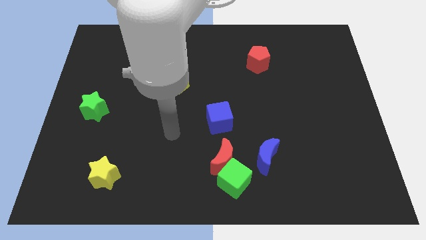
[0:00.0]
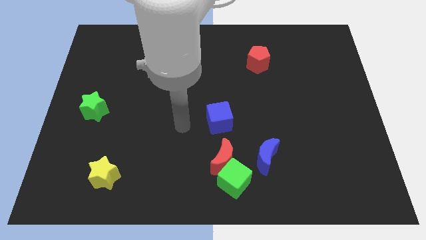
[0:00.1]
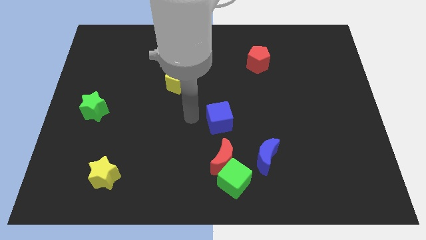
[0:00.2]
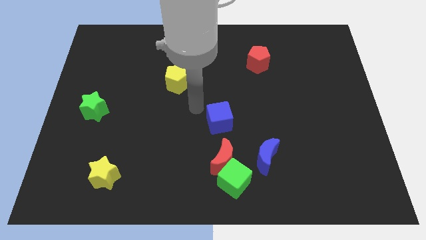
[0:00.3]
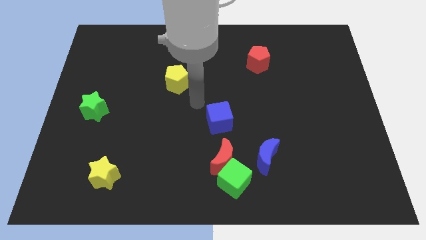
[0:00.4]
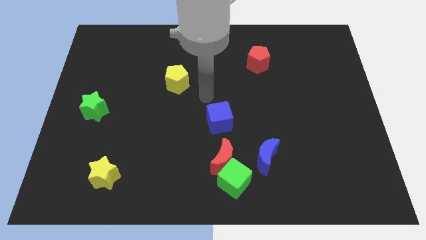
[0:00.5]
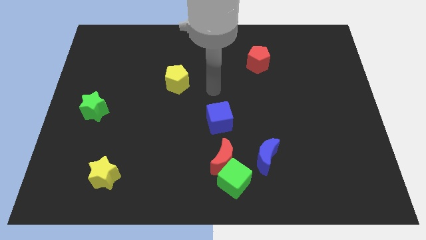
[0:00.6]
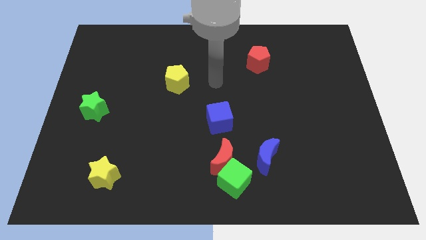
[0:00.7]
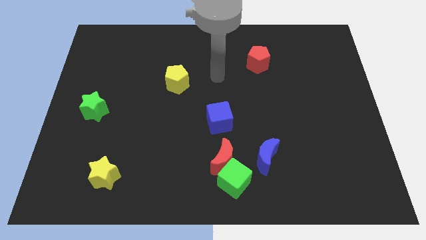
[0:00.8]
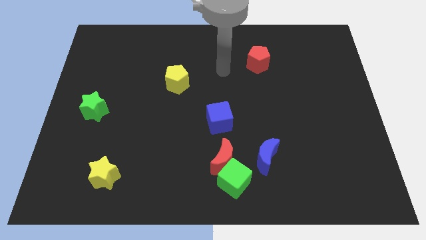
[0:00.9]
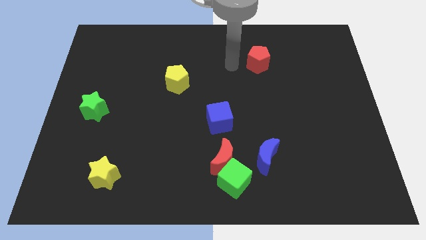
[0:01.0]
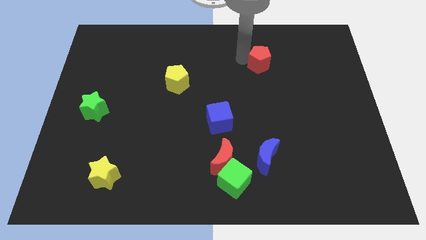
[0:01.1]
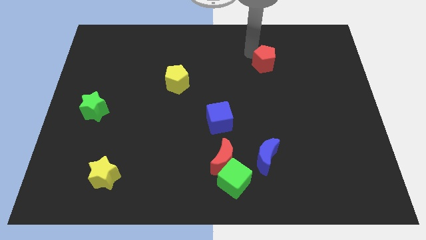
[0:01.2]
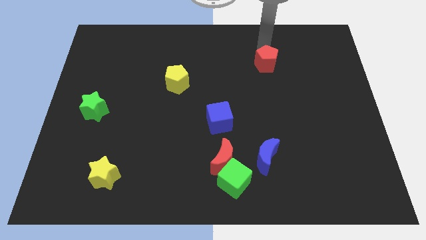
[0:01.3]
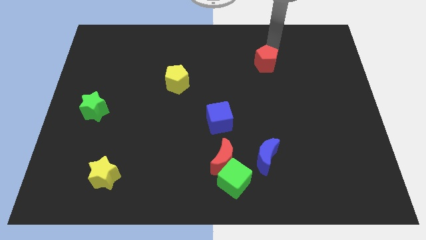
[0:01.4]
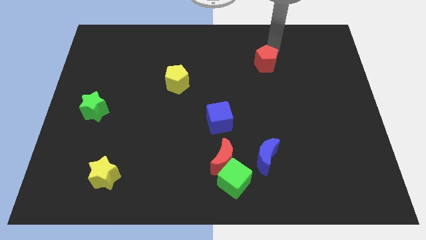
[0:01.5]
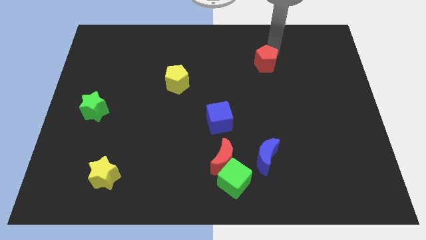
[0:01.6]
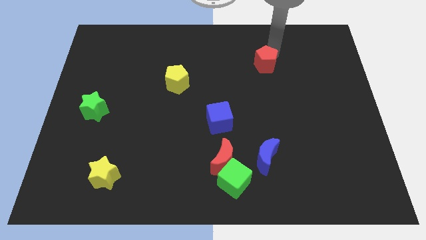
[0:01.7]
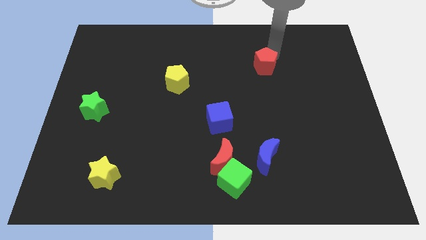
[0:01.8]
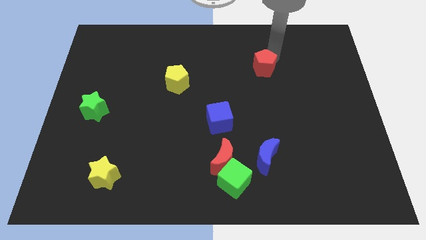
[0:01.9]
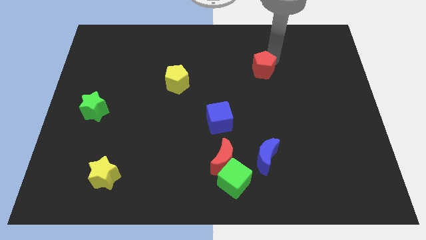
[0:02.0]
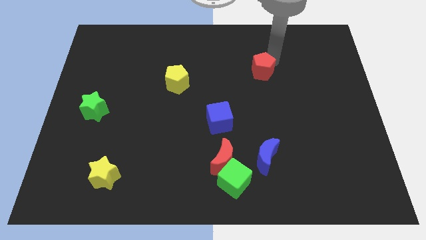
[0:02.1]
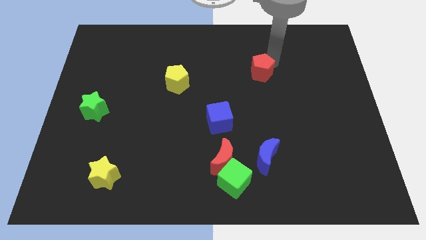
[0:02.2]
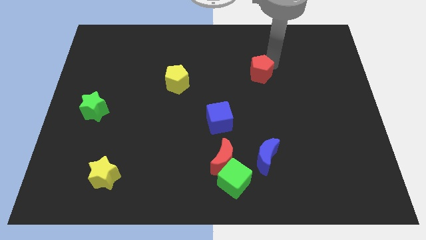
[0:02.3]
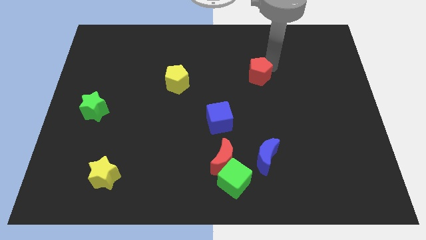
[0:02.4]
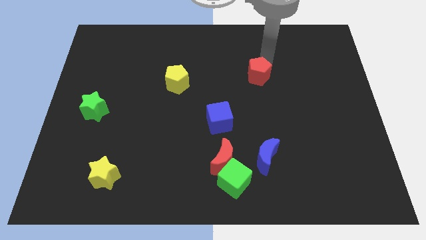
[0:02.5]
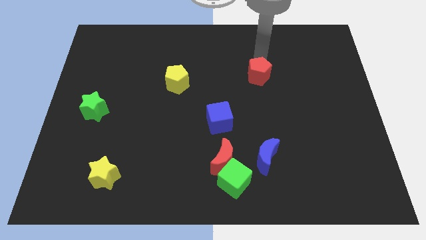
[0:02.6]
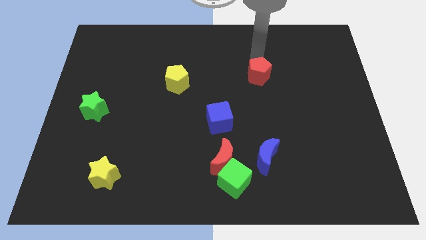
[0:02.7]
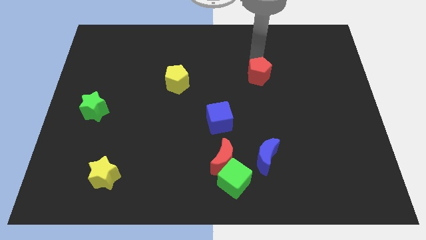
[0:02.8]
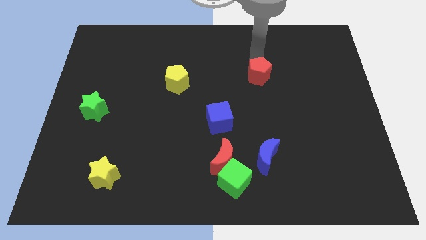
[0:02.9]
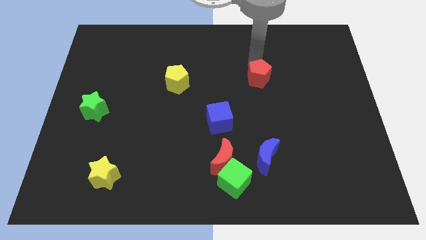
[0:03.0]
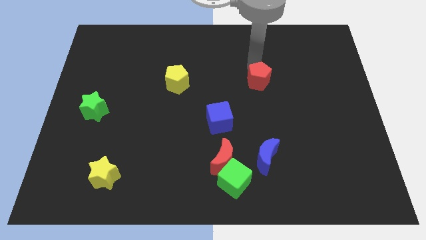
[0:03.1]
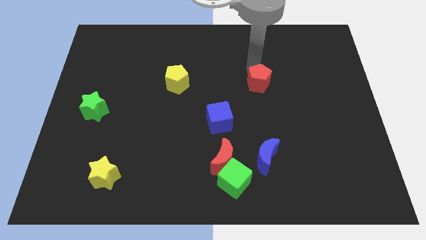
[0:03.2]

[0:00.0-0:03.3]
move the red pentagon downwards somewhat

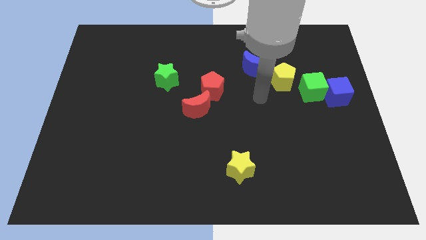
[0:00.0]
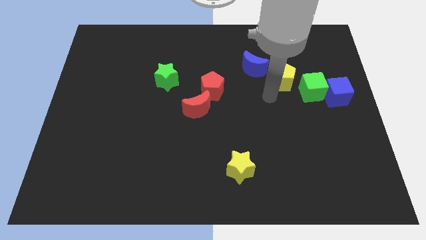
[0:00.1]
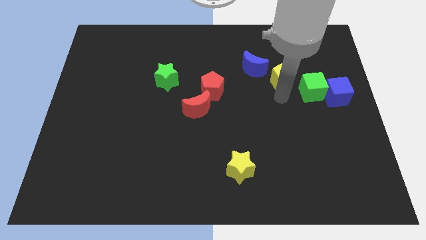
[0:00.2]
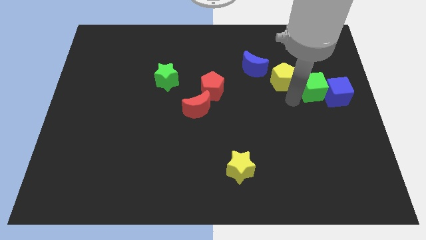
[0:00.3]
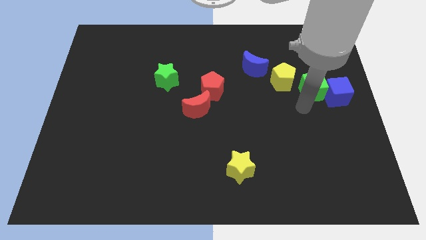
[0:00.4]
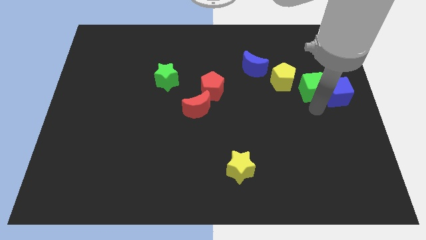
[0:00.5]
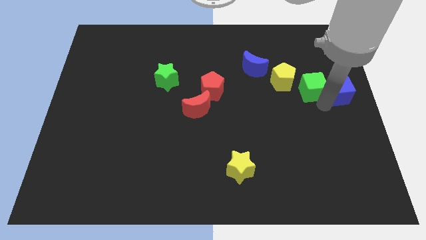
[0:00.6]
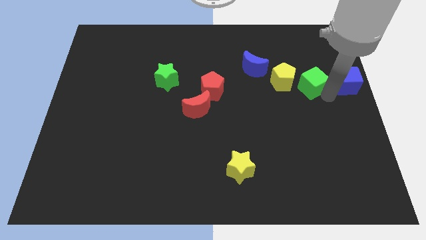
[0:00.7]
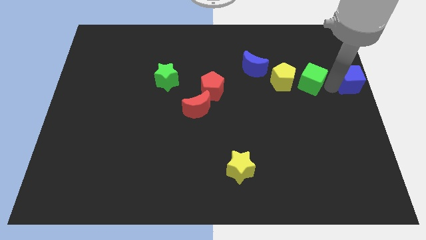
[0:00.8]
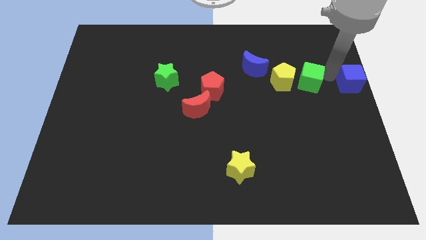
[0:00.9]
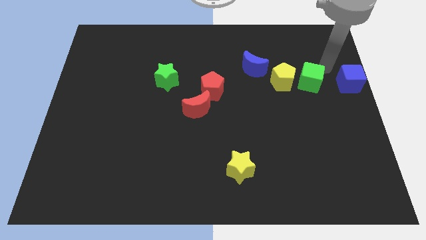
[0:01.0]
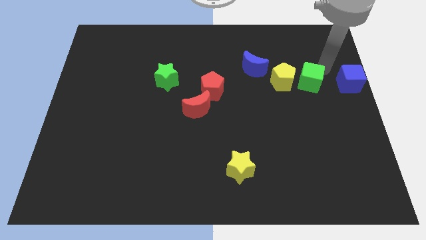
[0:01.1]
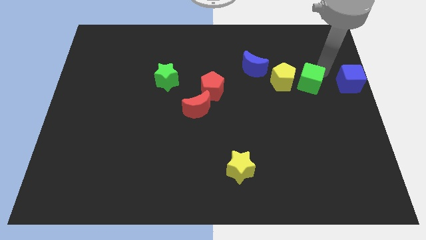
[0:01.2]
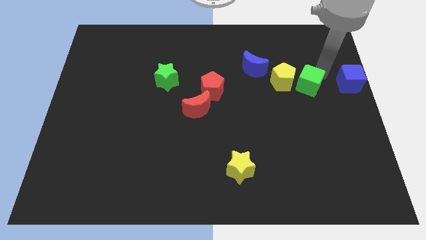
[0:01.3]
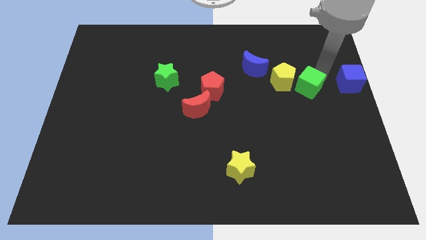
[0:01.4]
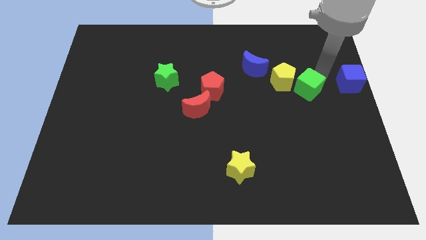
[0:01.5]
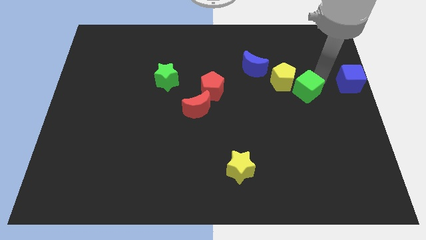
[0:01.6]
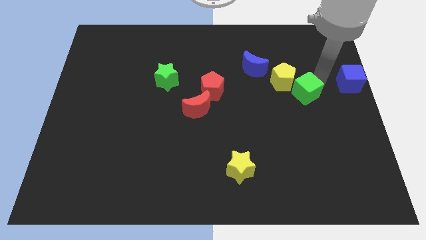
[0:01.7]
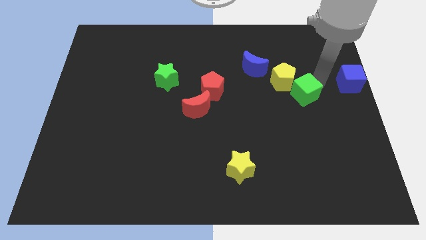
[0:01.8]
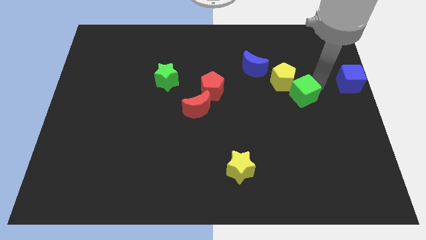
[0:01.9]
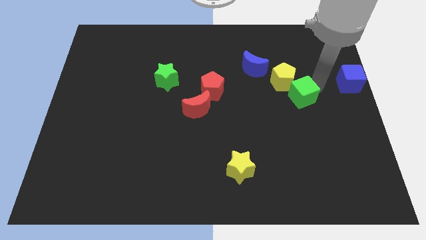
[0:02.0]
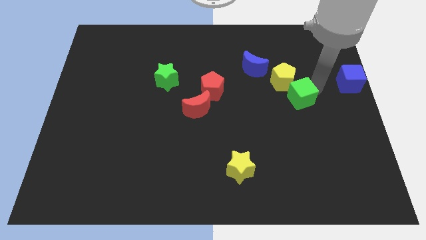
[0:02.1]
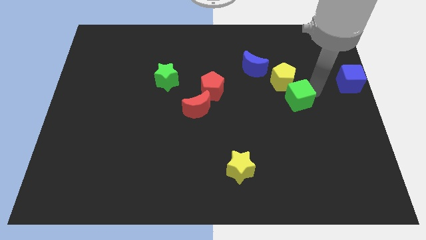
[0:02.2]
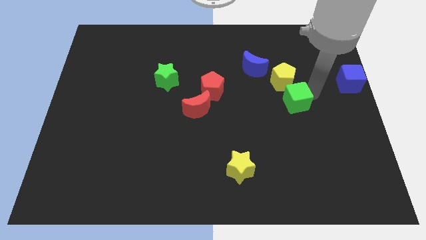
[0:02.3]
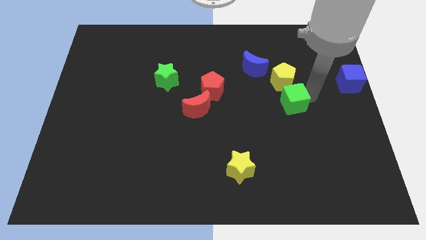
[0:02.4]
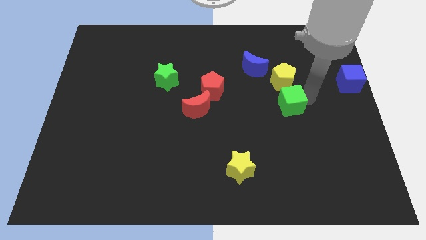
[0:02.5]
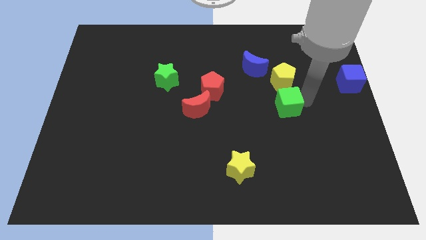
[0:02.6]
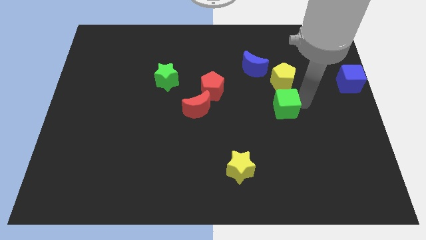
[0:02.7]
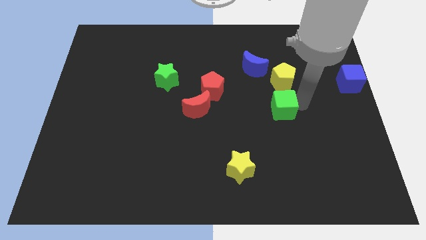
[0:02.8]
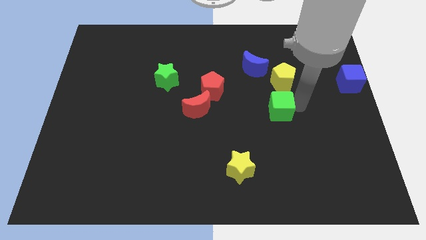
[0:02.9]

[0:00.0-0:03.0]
push the green cube a little to the left

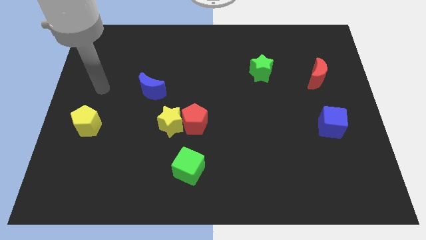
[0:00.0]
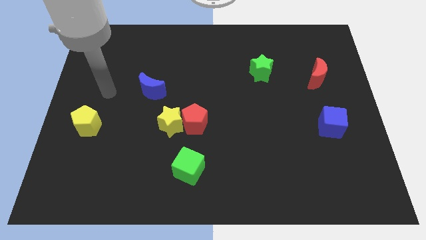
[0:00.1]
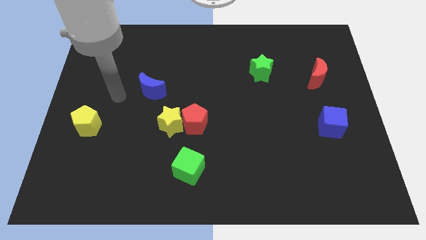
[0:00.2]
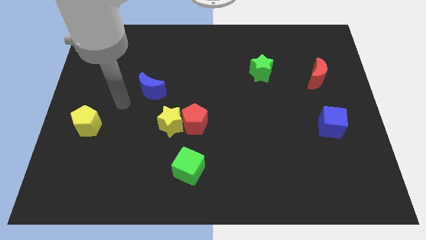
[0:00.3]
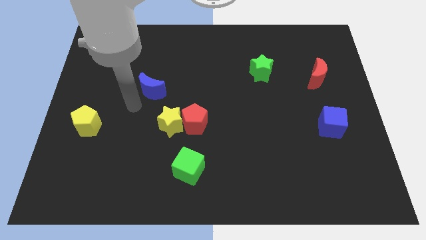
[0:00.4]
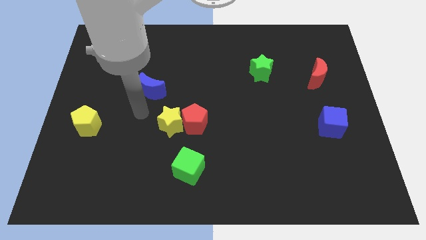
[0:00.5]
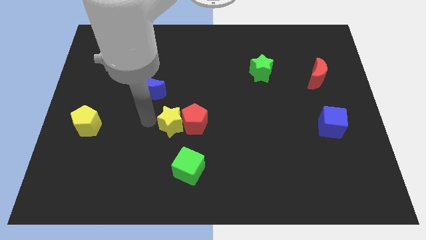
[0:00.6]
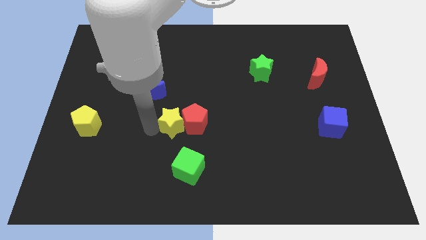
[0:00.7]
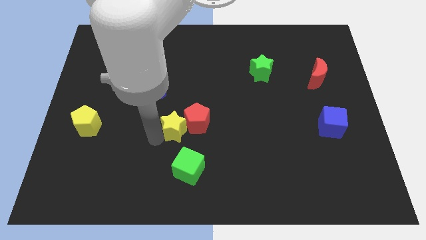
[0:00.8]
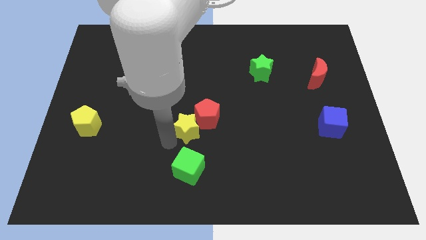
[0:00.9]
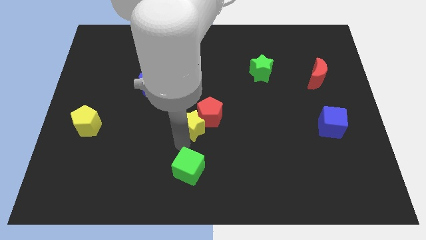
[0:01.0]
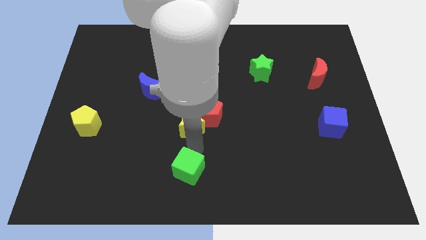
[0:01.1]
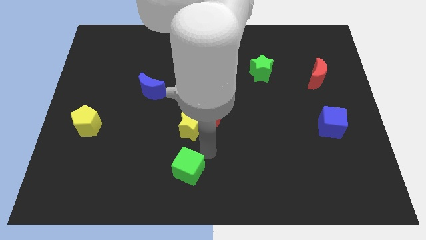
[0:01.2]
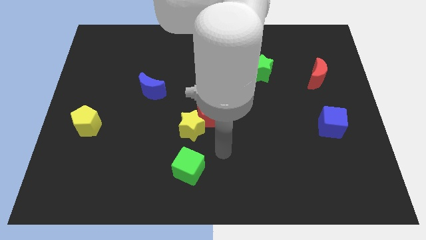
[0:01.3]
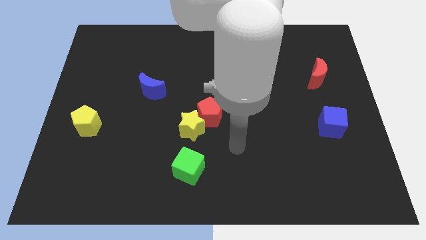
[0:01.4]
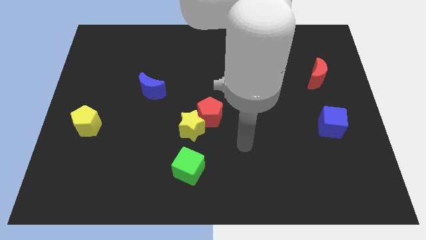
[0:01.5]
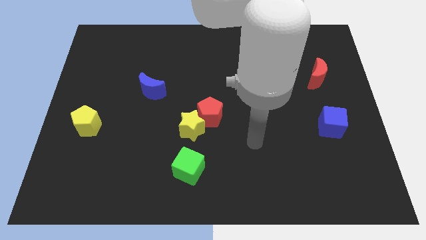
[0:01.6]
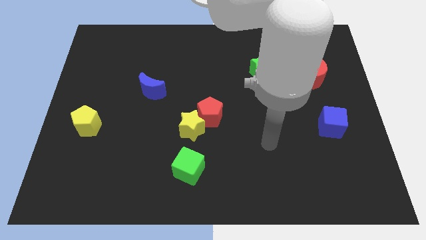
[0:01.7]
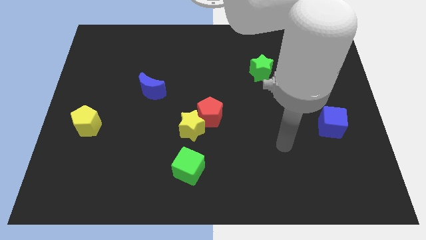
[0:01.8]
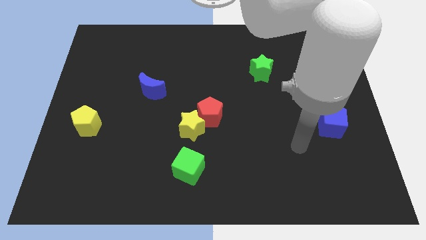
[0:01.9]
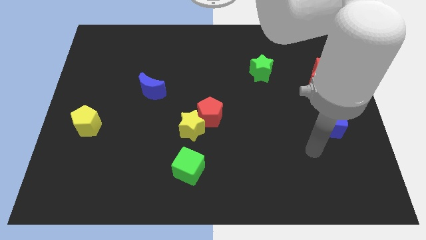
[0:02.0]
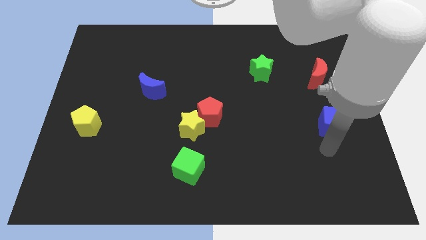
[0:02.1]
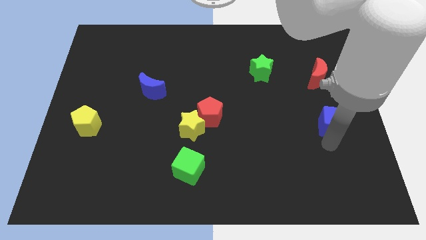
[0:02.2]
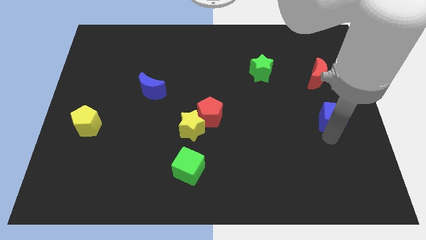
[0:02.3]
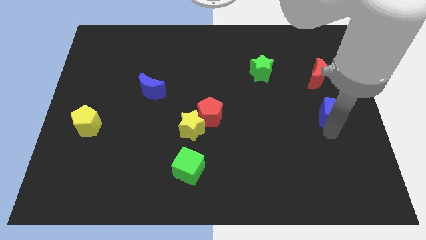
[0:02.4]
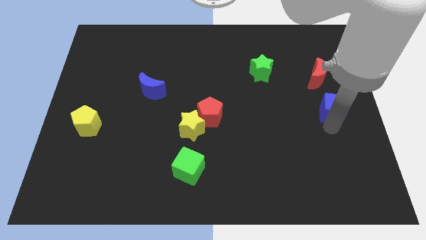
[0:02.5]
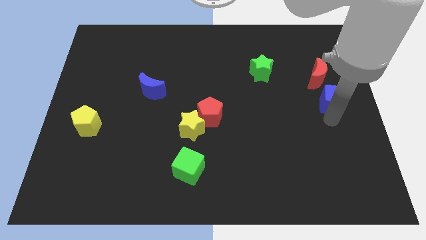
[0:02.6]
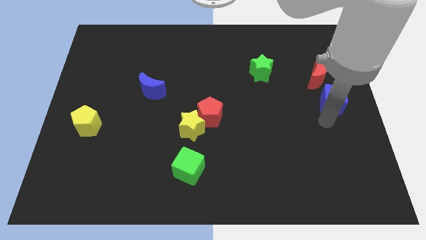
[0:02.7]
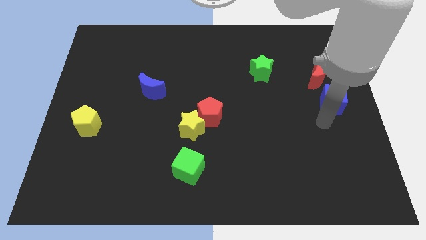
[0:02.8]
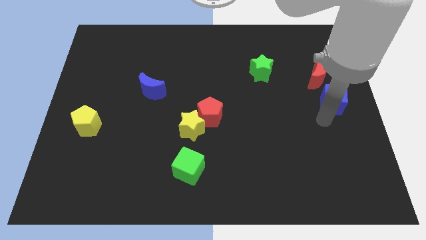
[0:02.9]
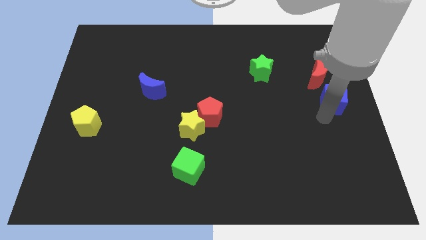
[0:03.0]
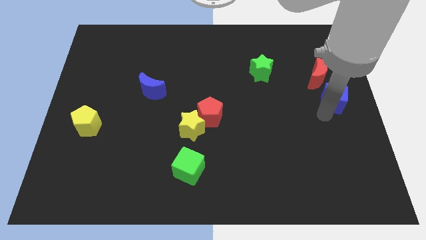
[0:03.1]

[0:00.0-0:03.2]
move the blue cube up somewhat
